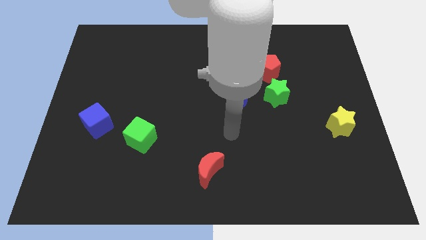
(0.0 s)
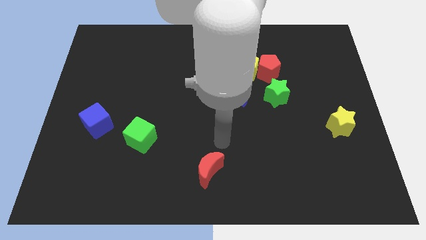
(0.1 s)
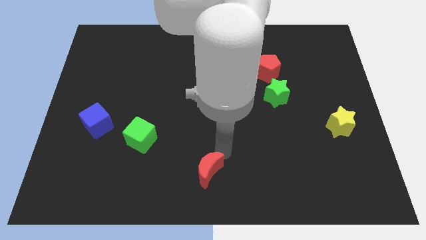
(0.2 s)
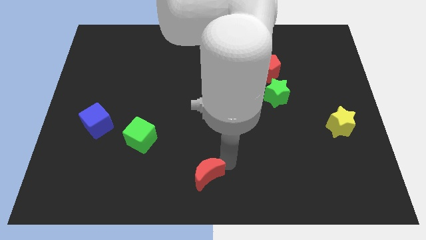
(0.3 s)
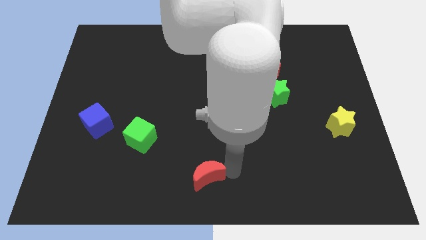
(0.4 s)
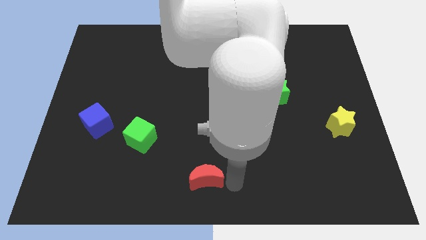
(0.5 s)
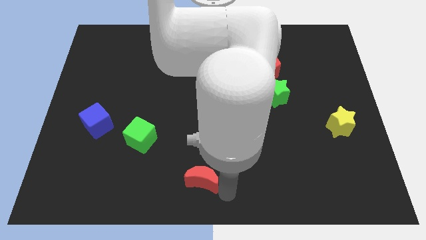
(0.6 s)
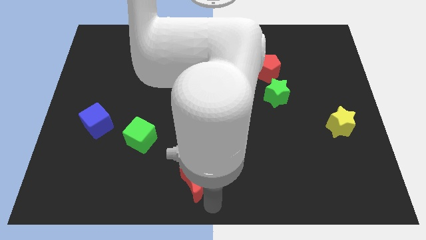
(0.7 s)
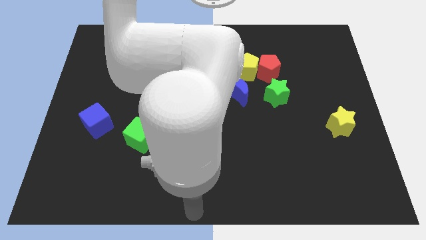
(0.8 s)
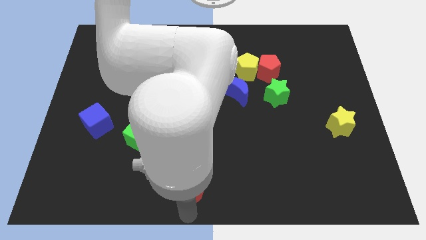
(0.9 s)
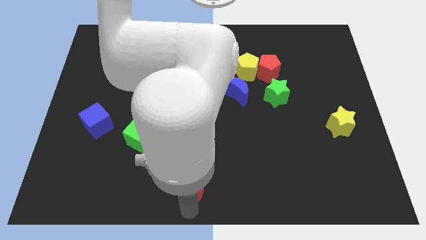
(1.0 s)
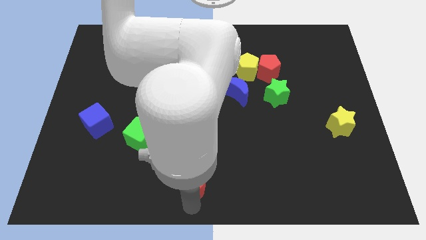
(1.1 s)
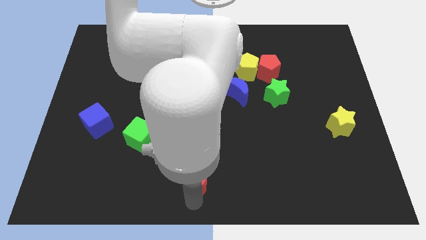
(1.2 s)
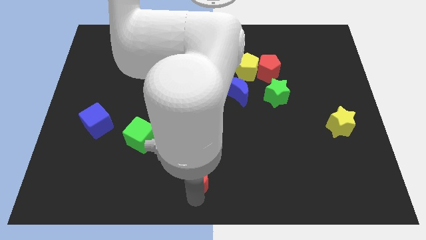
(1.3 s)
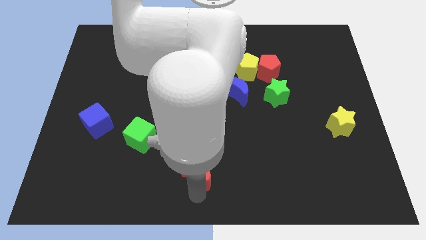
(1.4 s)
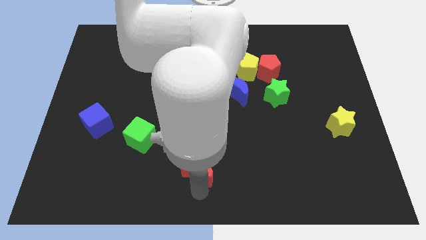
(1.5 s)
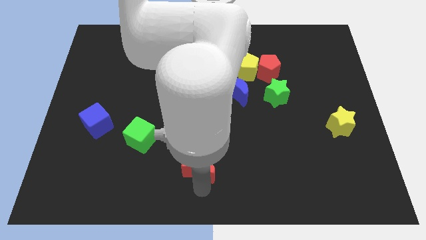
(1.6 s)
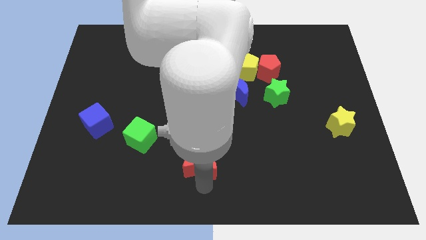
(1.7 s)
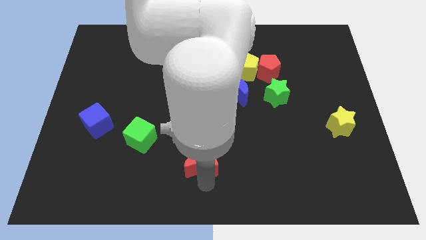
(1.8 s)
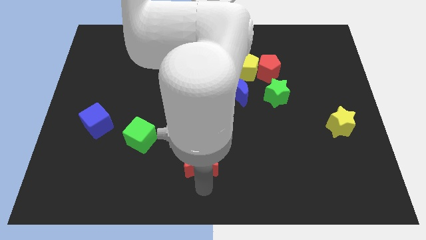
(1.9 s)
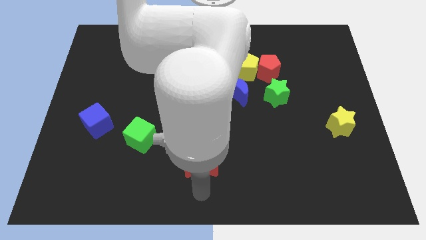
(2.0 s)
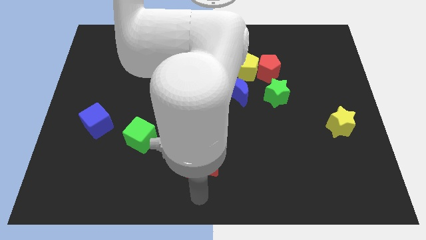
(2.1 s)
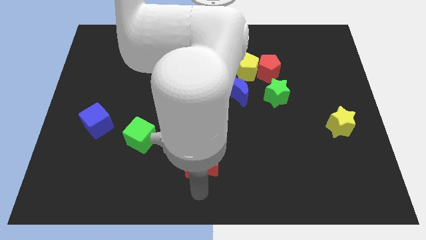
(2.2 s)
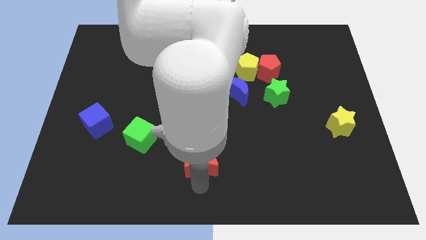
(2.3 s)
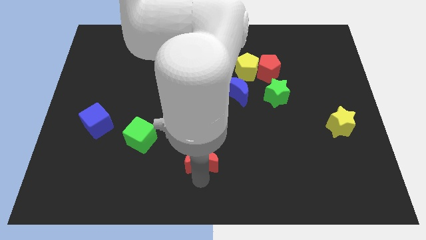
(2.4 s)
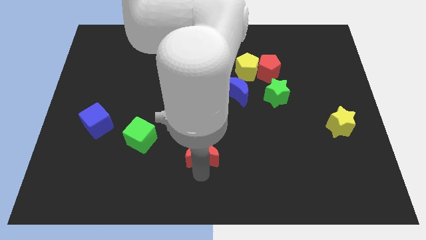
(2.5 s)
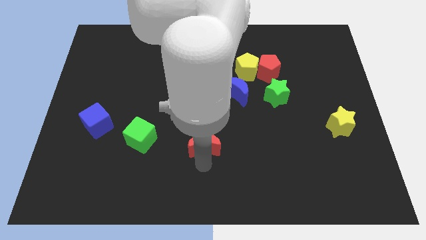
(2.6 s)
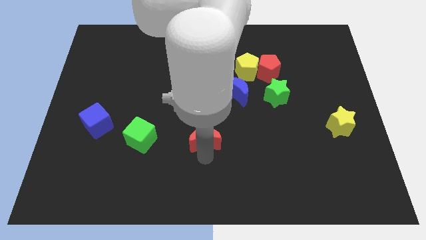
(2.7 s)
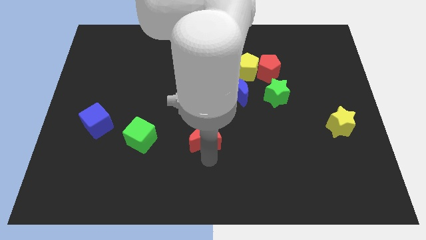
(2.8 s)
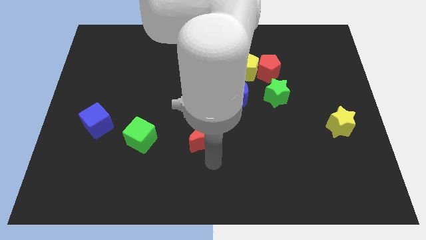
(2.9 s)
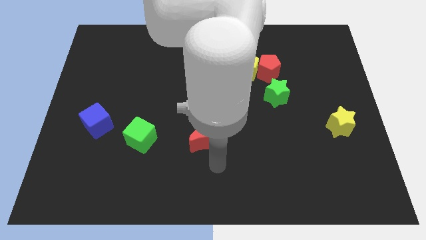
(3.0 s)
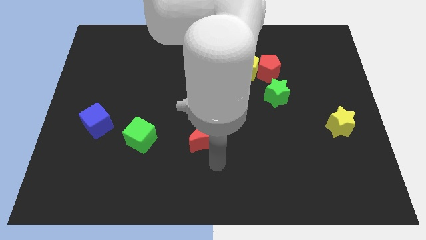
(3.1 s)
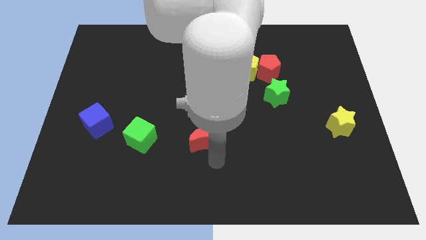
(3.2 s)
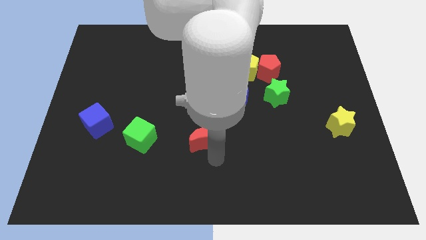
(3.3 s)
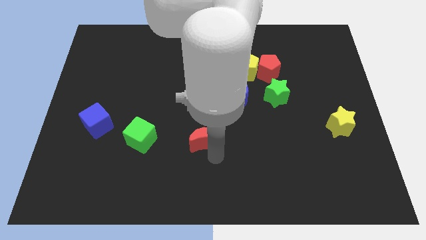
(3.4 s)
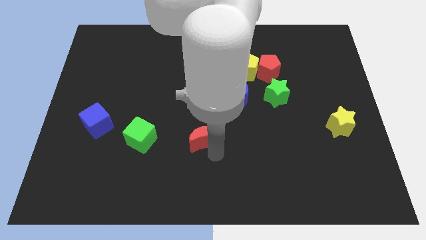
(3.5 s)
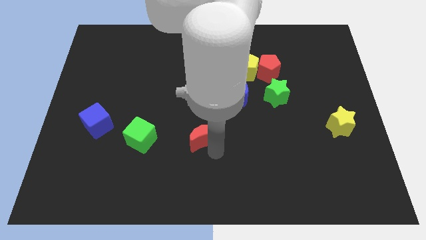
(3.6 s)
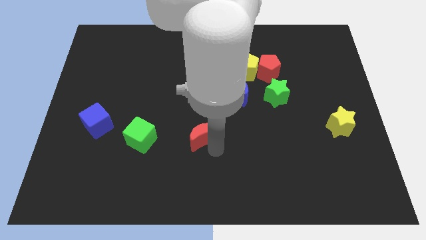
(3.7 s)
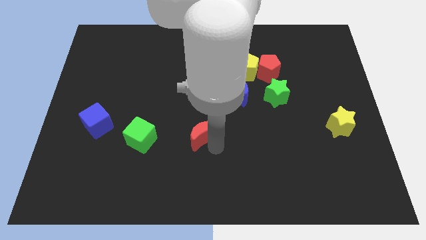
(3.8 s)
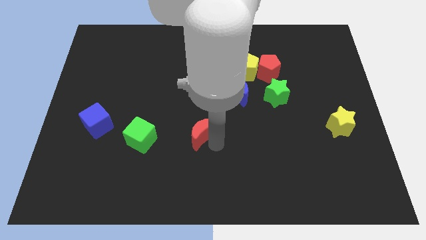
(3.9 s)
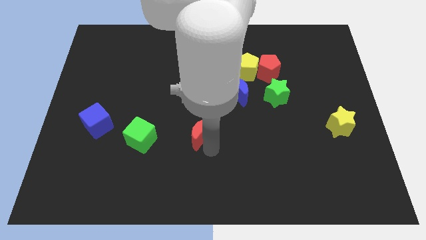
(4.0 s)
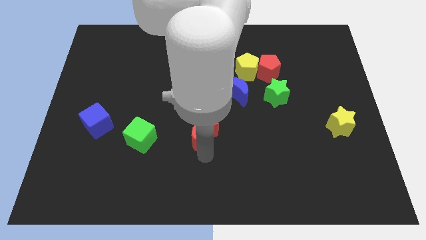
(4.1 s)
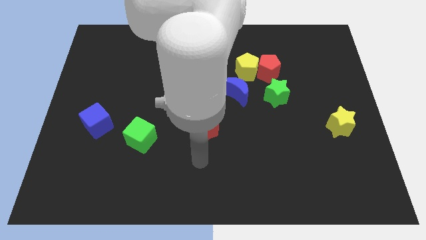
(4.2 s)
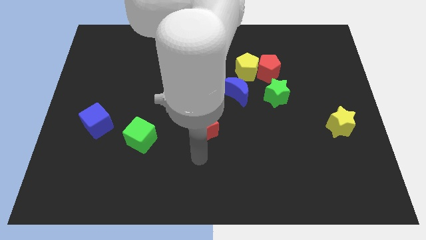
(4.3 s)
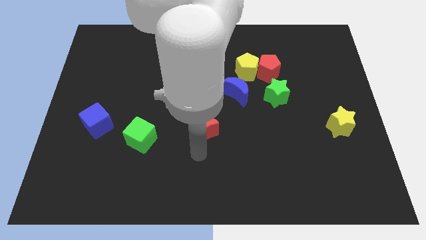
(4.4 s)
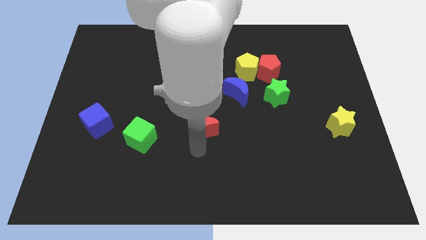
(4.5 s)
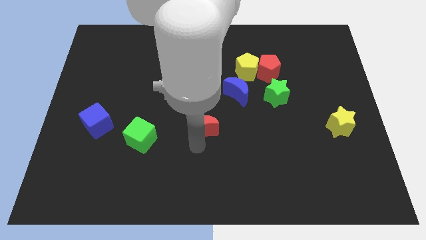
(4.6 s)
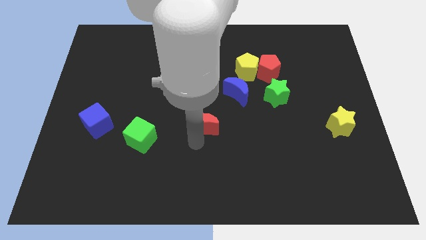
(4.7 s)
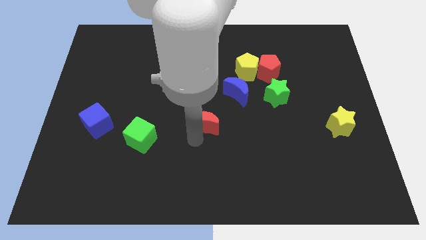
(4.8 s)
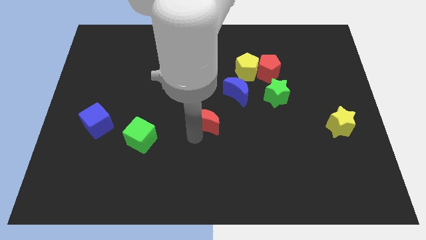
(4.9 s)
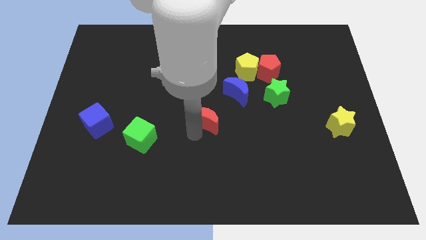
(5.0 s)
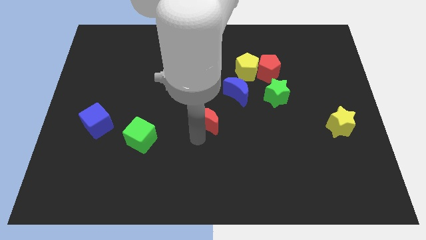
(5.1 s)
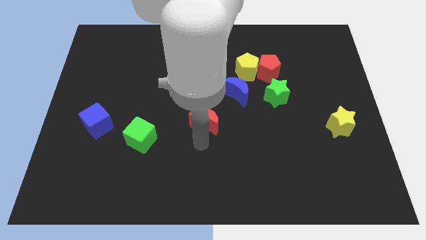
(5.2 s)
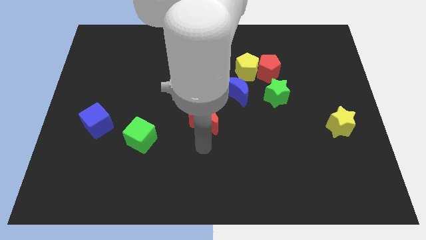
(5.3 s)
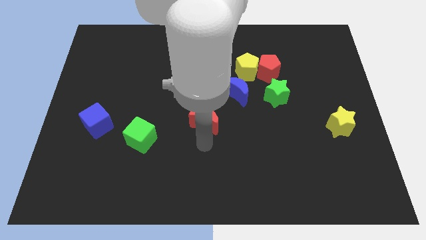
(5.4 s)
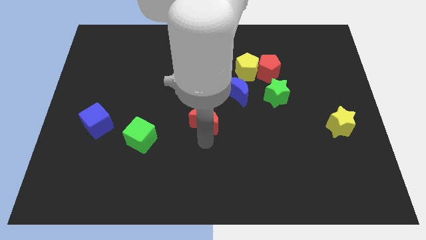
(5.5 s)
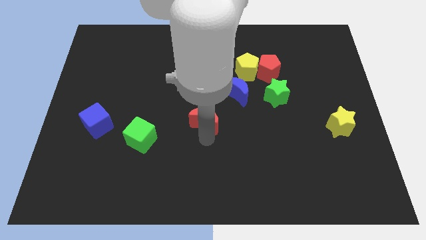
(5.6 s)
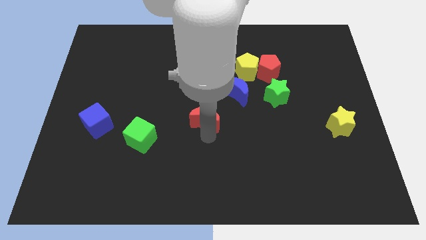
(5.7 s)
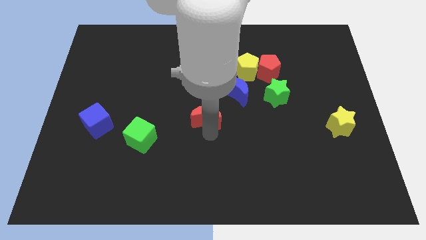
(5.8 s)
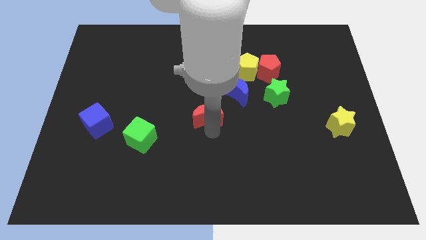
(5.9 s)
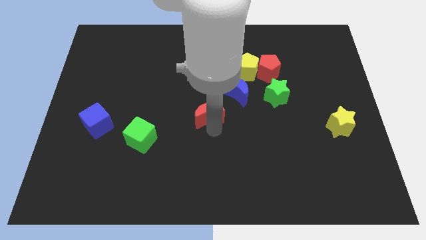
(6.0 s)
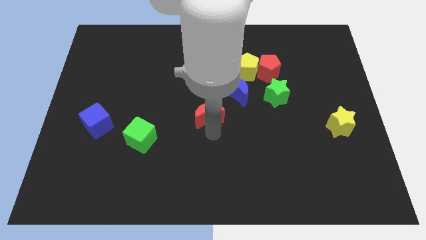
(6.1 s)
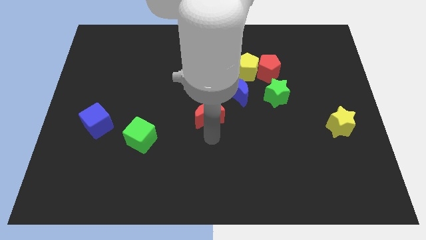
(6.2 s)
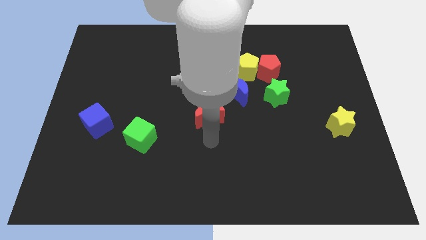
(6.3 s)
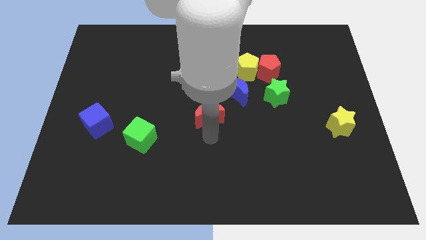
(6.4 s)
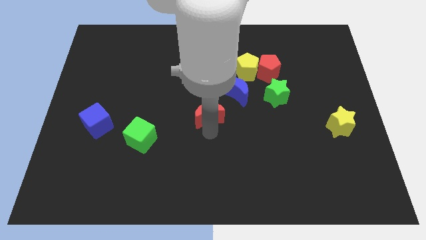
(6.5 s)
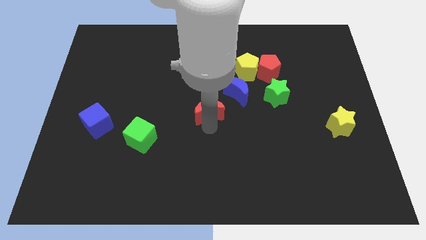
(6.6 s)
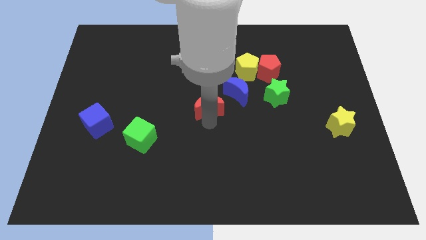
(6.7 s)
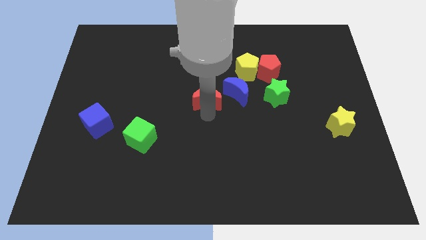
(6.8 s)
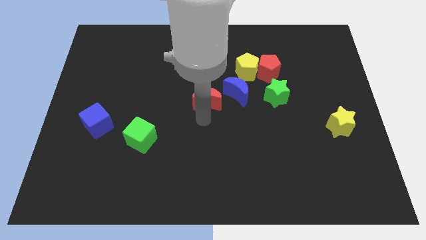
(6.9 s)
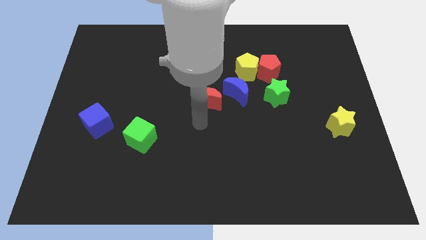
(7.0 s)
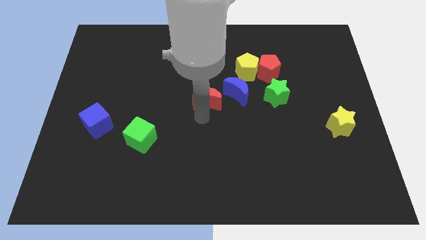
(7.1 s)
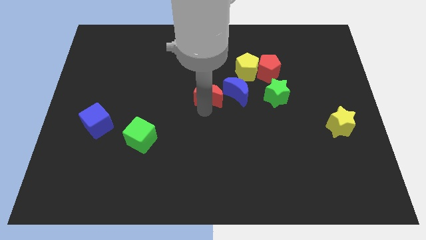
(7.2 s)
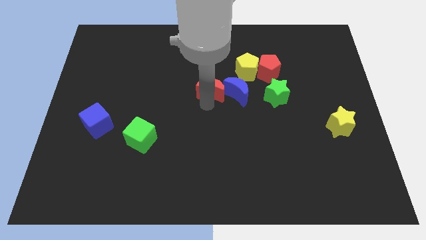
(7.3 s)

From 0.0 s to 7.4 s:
slide the red moon diagonally up and to the left of the blue moon
